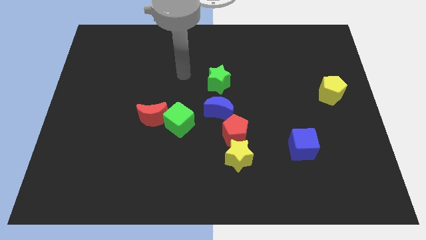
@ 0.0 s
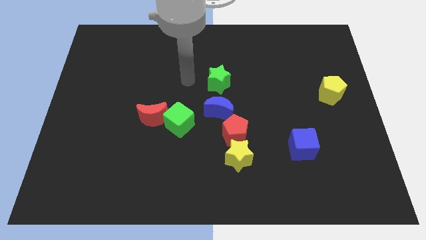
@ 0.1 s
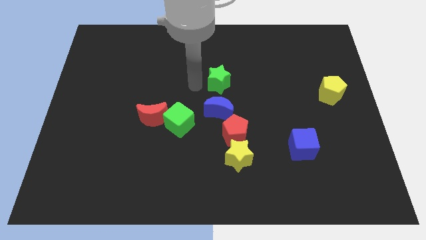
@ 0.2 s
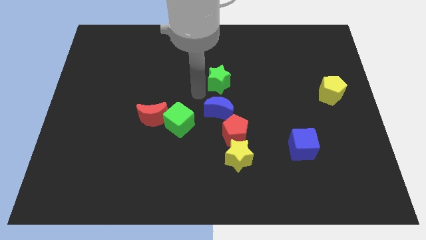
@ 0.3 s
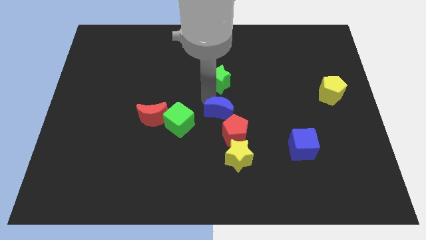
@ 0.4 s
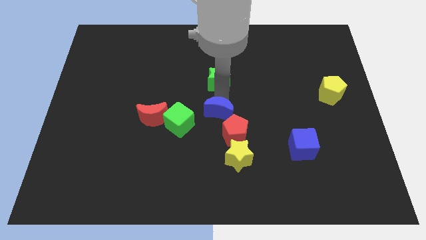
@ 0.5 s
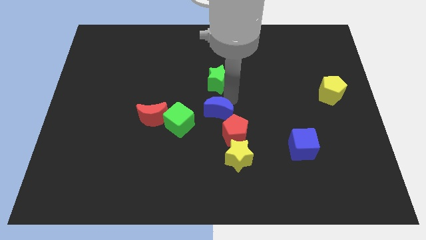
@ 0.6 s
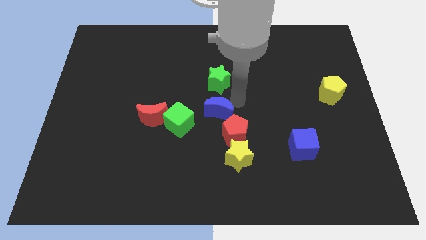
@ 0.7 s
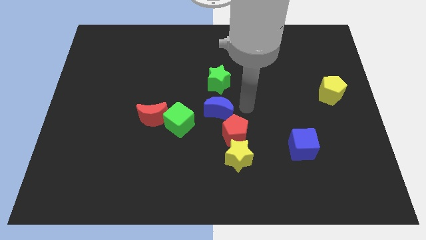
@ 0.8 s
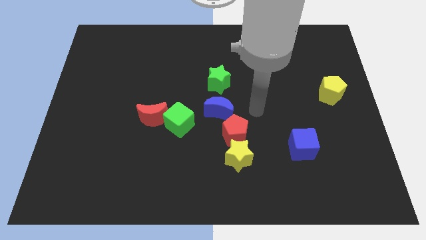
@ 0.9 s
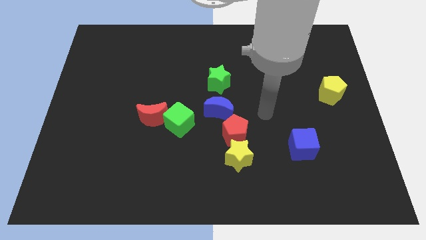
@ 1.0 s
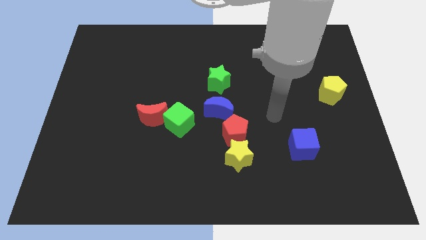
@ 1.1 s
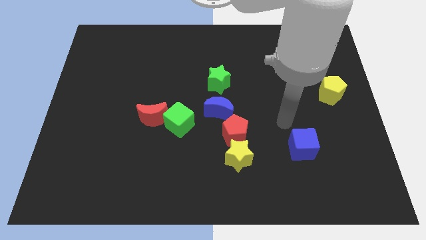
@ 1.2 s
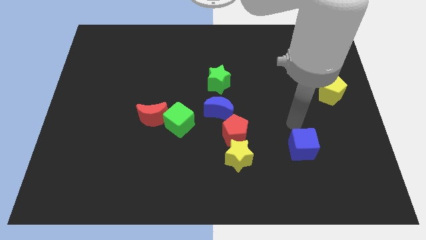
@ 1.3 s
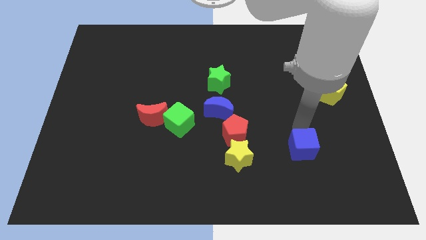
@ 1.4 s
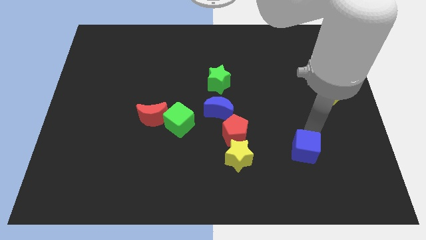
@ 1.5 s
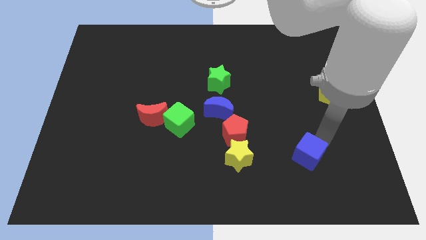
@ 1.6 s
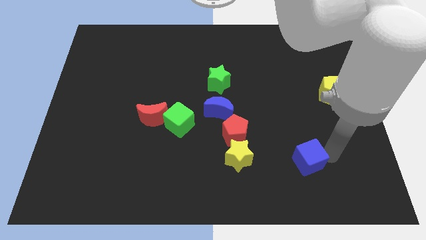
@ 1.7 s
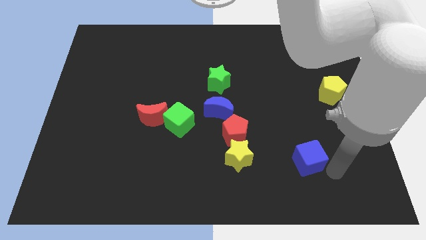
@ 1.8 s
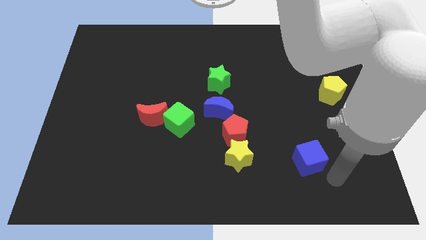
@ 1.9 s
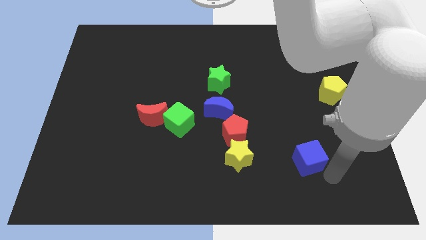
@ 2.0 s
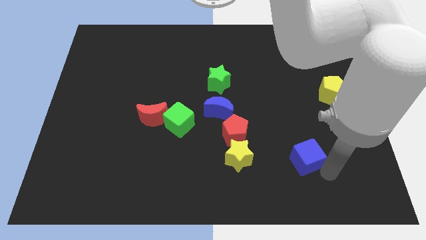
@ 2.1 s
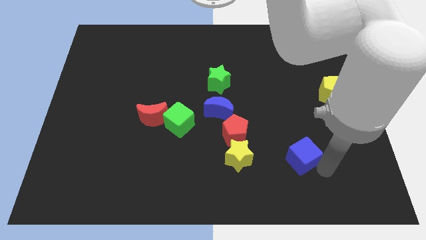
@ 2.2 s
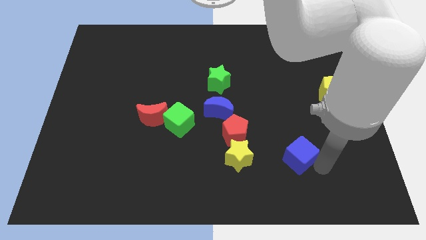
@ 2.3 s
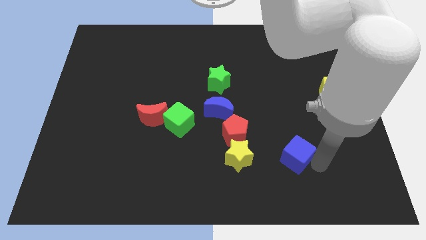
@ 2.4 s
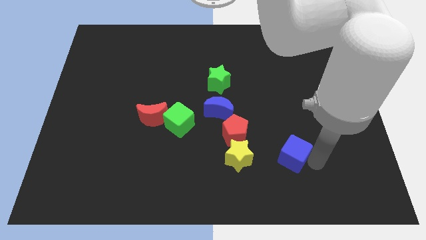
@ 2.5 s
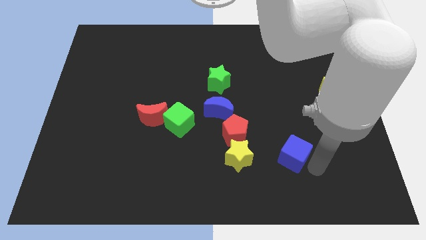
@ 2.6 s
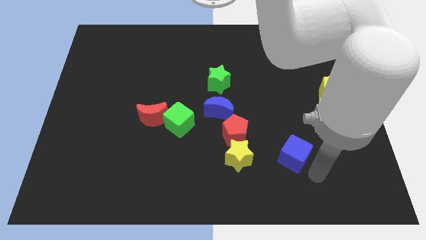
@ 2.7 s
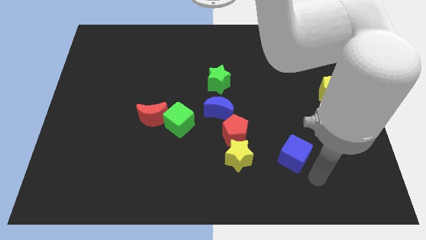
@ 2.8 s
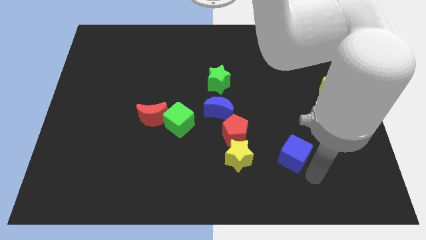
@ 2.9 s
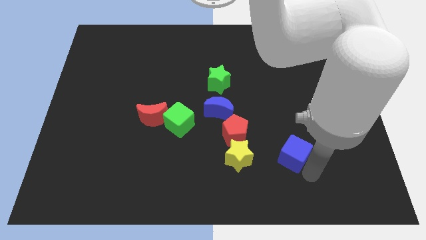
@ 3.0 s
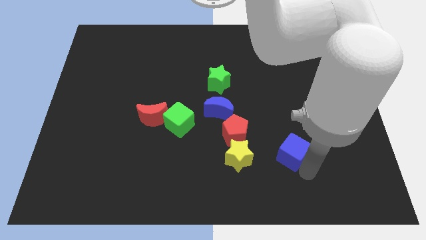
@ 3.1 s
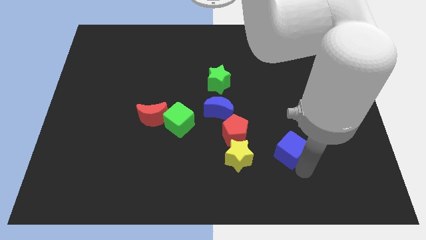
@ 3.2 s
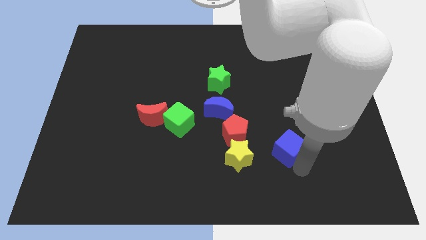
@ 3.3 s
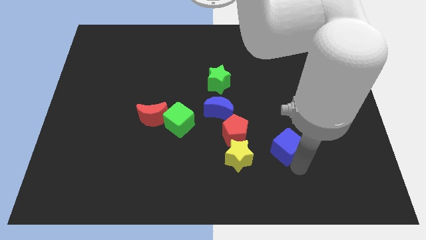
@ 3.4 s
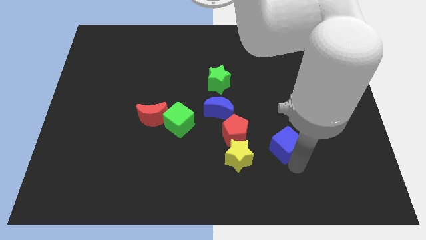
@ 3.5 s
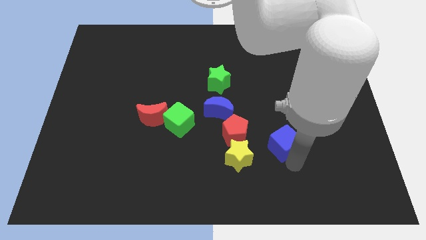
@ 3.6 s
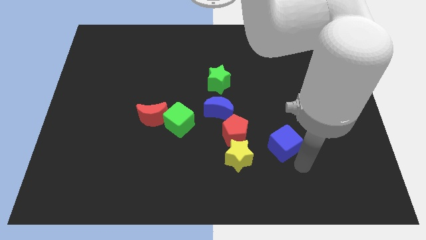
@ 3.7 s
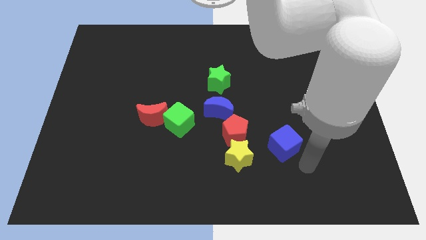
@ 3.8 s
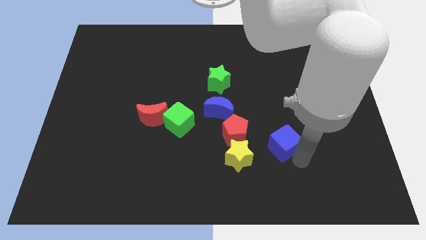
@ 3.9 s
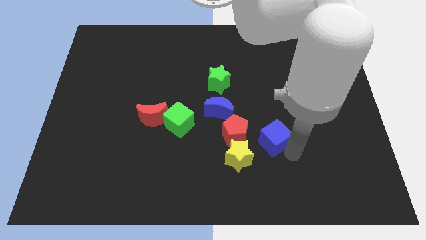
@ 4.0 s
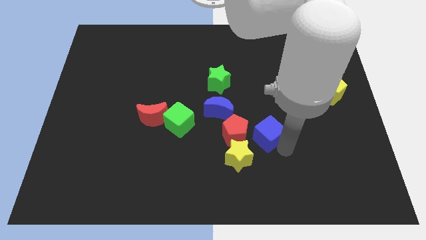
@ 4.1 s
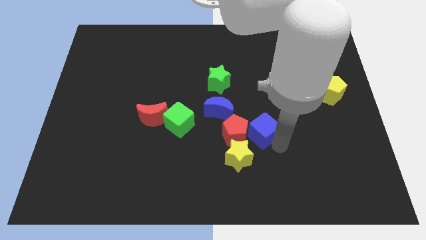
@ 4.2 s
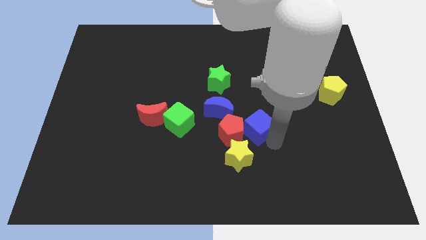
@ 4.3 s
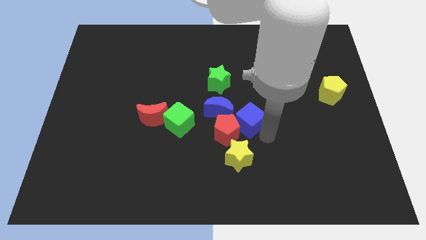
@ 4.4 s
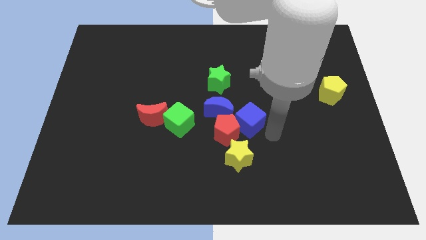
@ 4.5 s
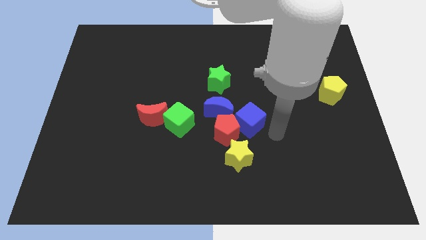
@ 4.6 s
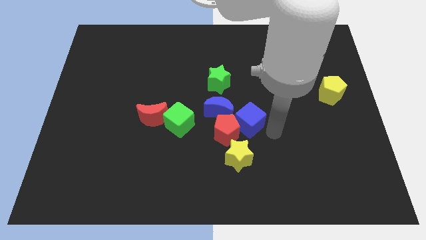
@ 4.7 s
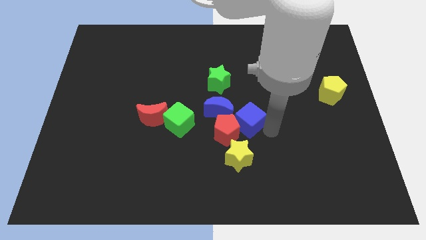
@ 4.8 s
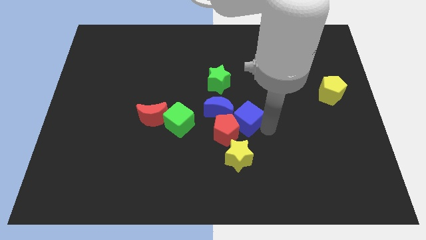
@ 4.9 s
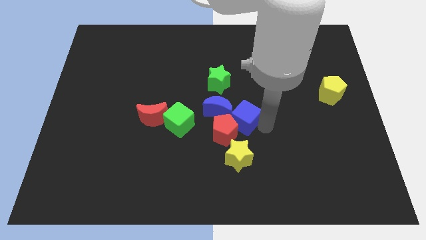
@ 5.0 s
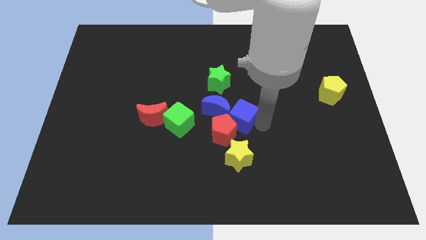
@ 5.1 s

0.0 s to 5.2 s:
move the blue cube close to the blue moon
